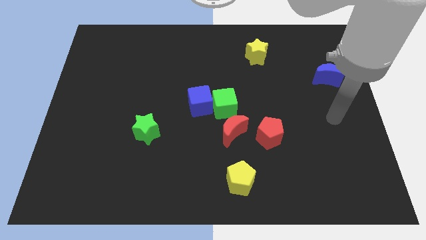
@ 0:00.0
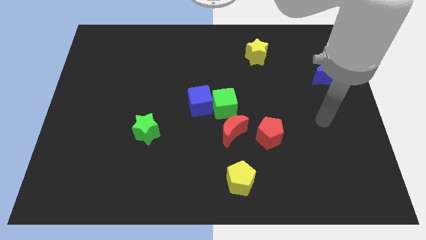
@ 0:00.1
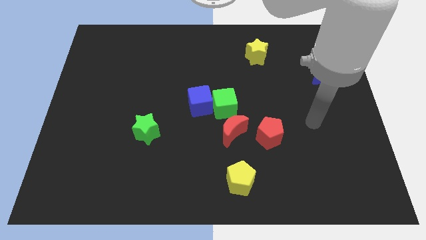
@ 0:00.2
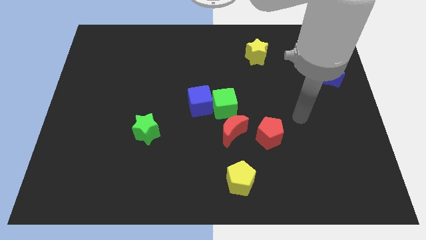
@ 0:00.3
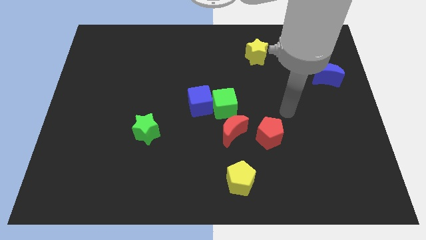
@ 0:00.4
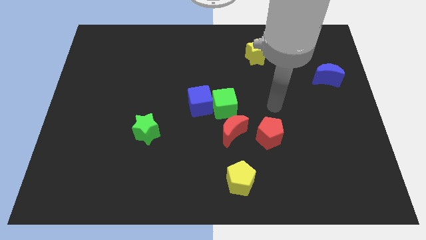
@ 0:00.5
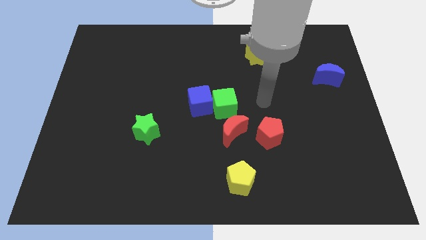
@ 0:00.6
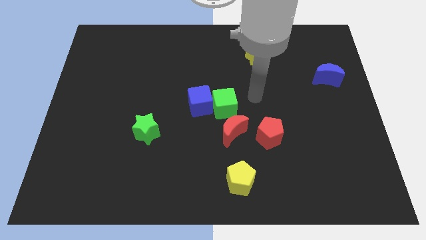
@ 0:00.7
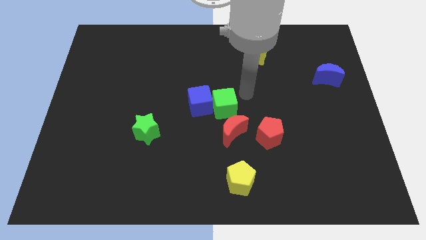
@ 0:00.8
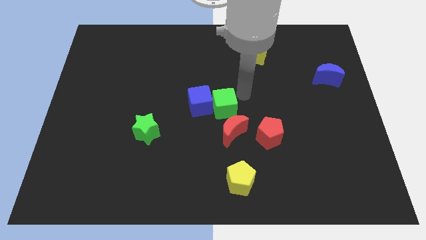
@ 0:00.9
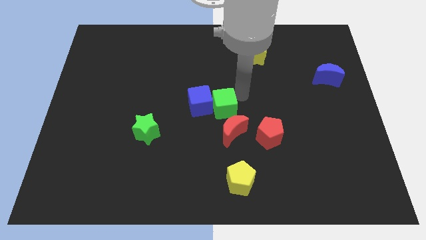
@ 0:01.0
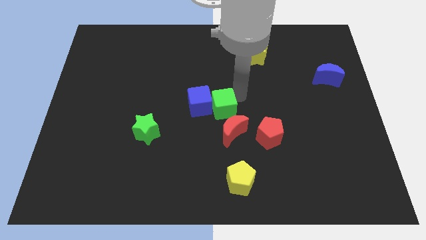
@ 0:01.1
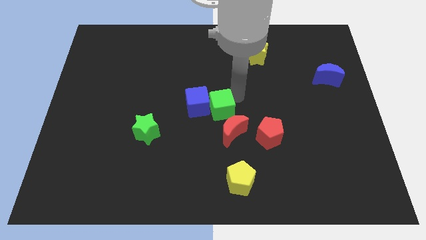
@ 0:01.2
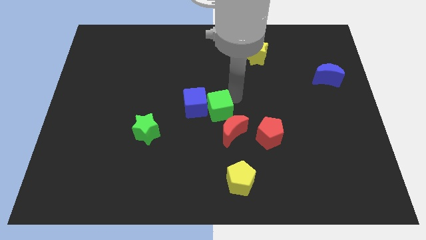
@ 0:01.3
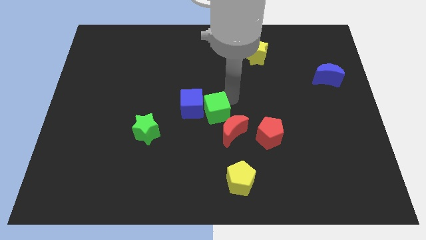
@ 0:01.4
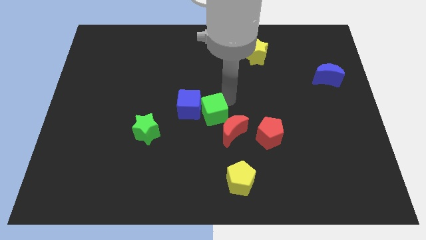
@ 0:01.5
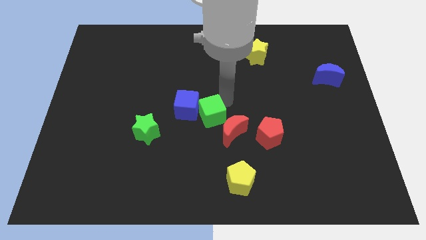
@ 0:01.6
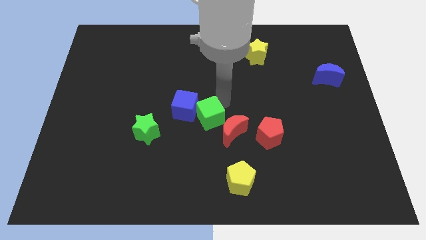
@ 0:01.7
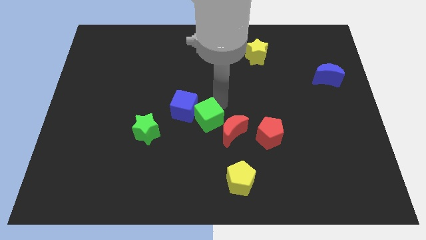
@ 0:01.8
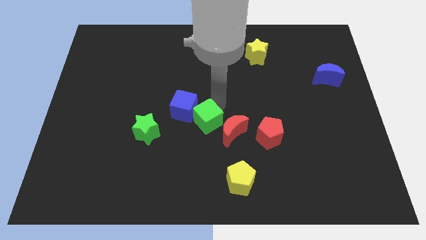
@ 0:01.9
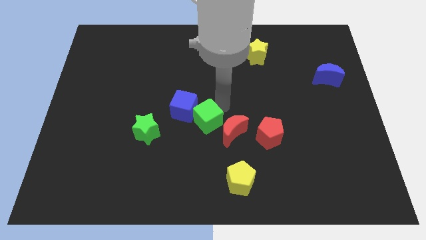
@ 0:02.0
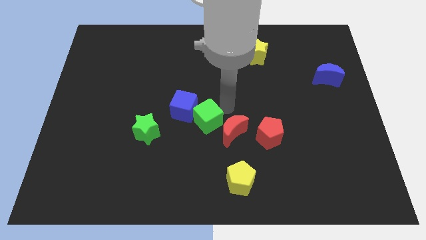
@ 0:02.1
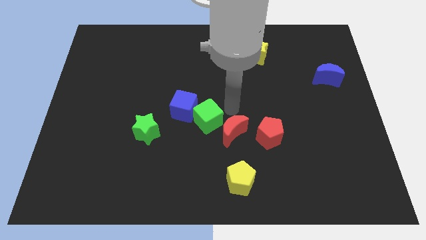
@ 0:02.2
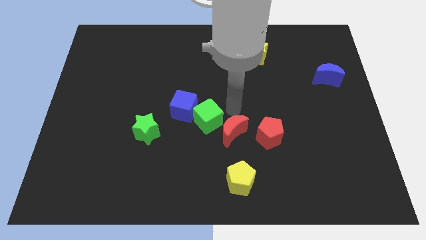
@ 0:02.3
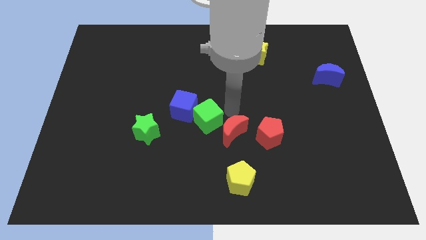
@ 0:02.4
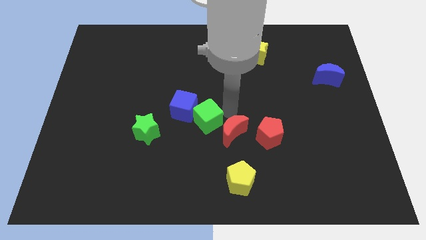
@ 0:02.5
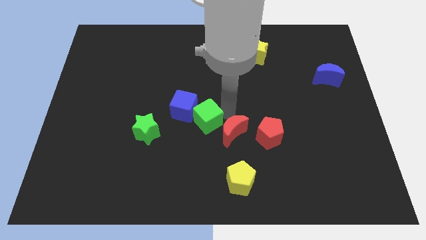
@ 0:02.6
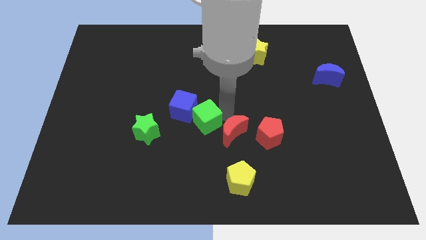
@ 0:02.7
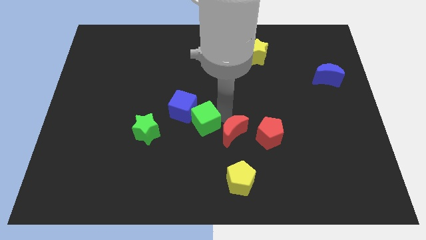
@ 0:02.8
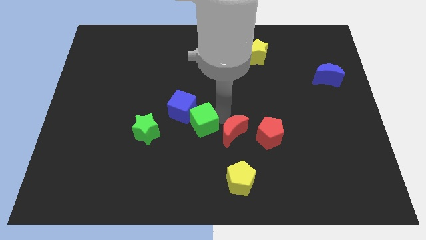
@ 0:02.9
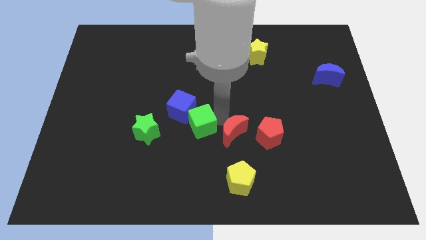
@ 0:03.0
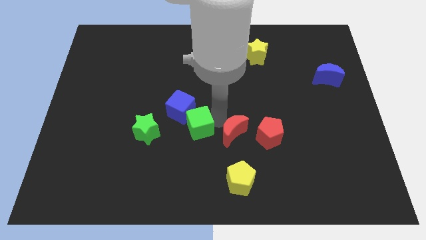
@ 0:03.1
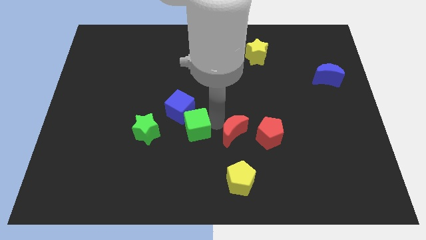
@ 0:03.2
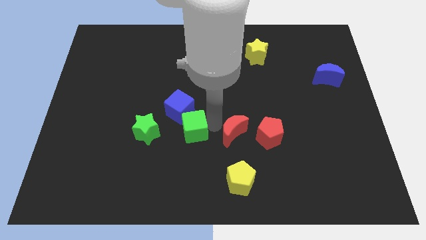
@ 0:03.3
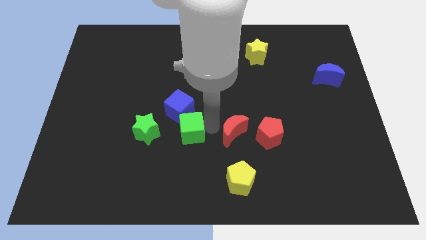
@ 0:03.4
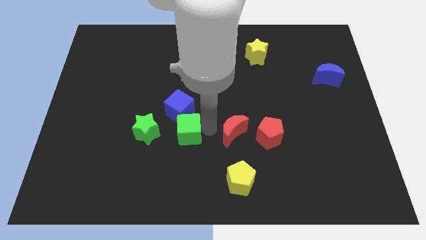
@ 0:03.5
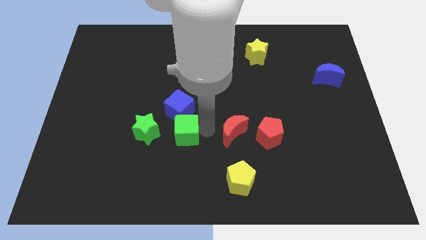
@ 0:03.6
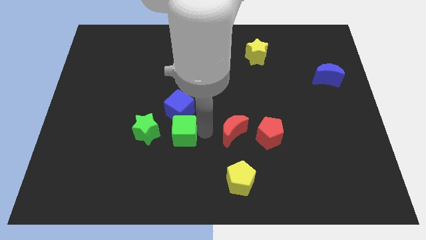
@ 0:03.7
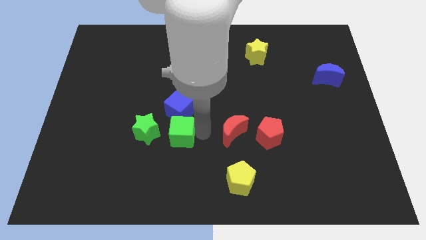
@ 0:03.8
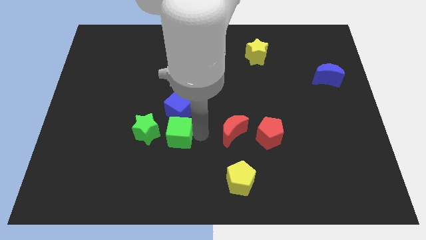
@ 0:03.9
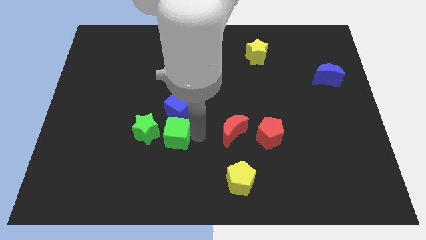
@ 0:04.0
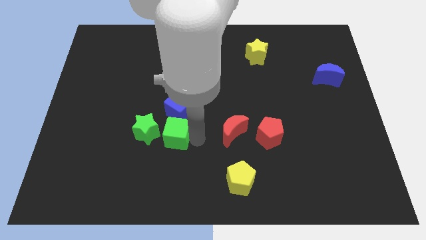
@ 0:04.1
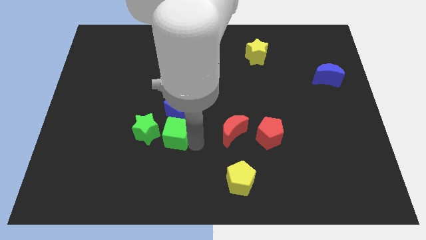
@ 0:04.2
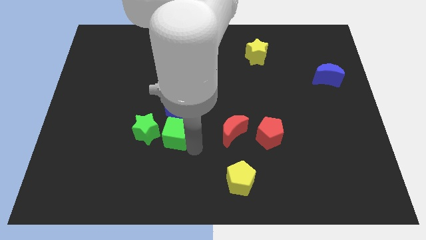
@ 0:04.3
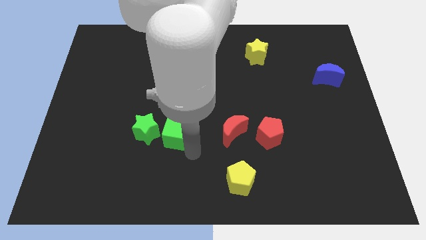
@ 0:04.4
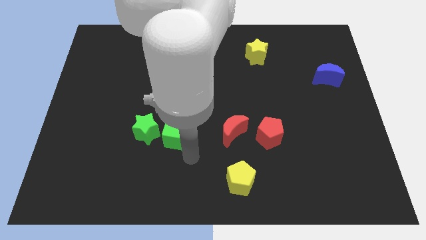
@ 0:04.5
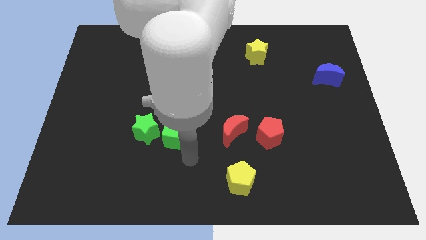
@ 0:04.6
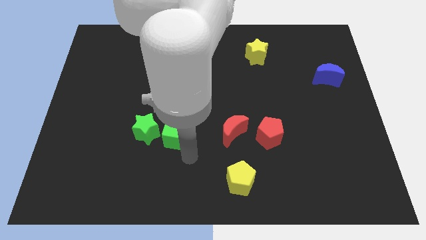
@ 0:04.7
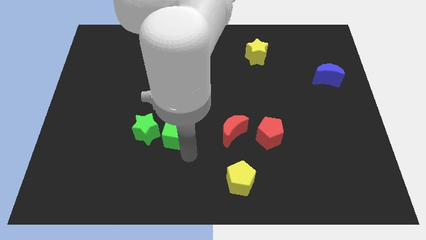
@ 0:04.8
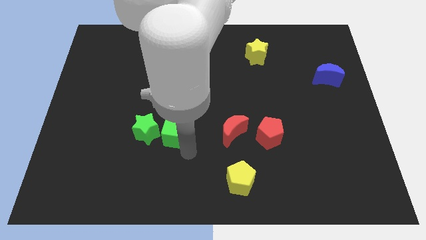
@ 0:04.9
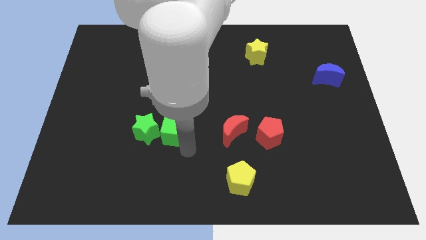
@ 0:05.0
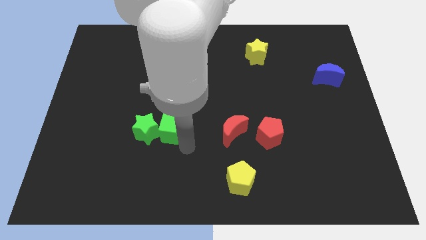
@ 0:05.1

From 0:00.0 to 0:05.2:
push the green cube next to the green star

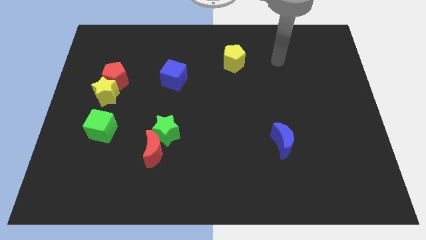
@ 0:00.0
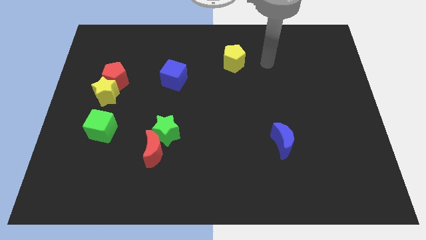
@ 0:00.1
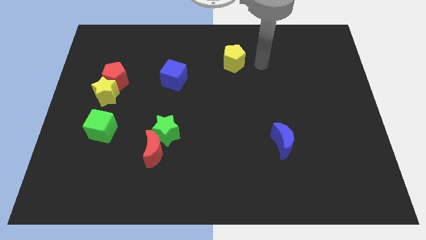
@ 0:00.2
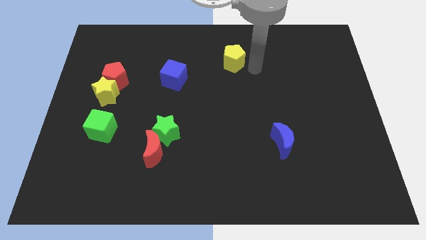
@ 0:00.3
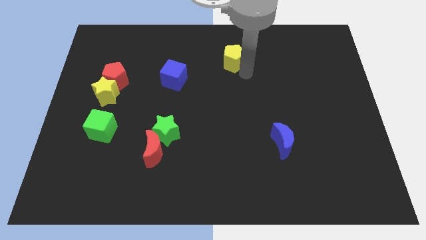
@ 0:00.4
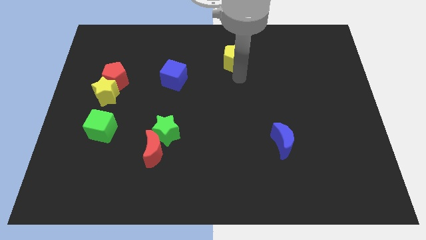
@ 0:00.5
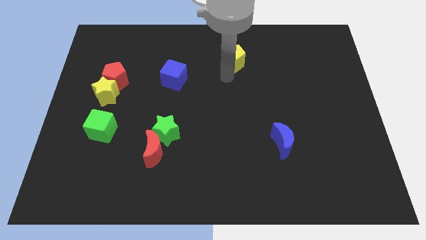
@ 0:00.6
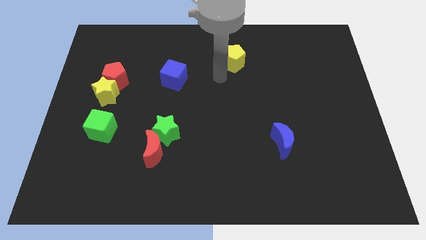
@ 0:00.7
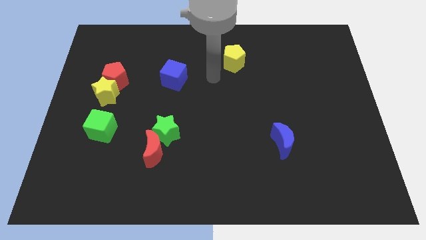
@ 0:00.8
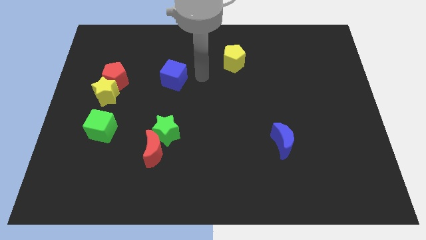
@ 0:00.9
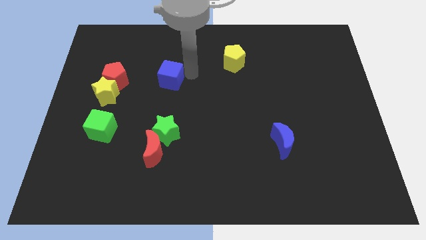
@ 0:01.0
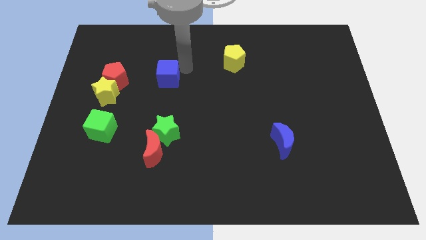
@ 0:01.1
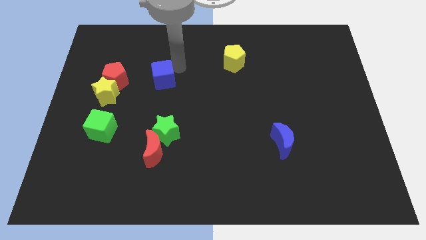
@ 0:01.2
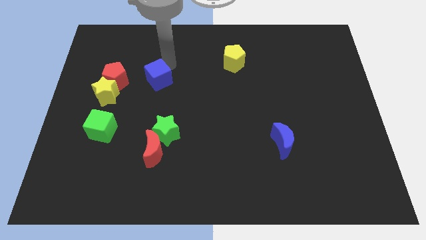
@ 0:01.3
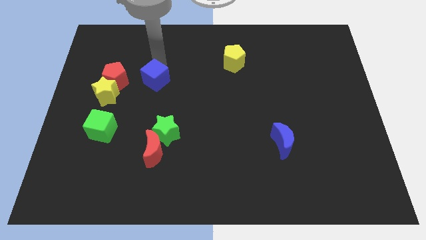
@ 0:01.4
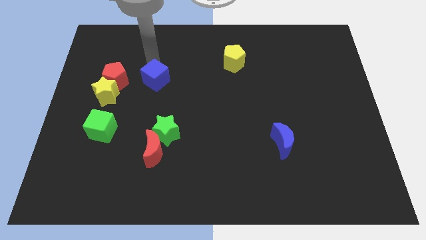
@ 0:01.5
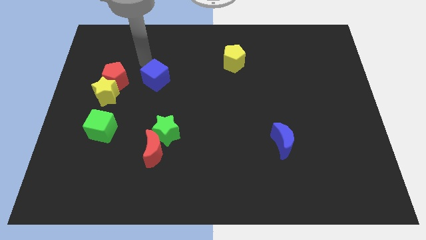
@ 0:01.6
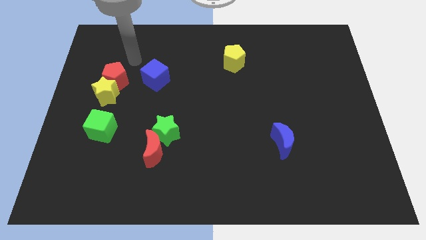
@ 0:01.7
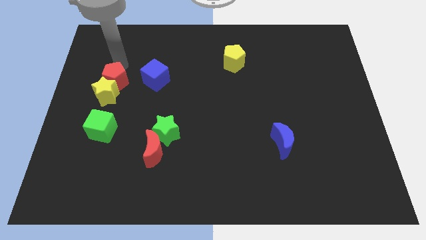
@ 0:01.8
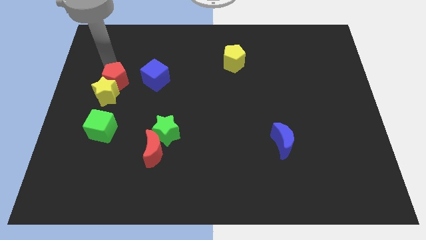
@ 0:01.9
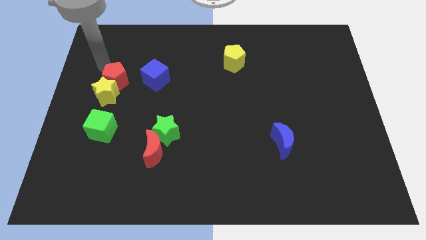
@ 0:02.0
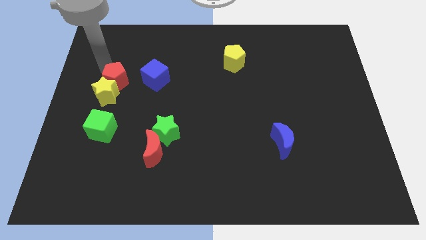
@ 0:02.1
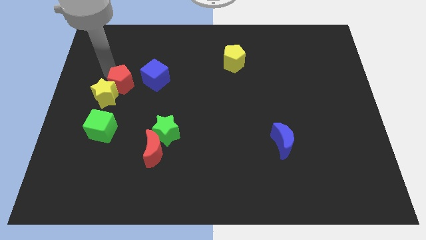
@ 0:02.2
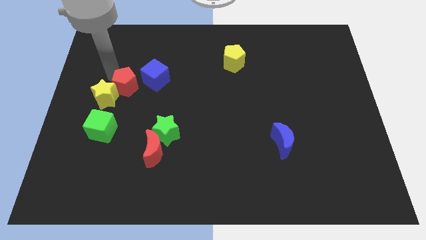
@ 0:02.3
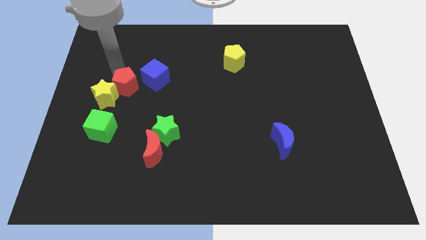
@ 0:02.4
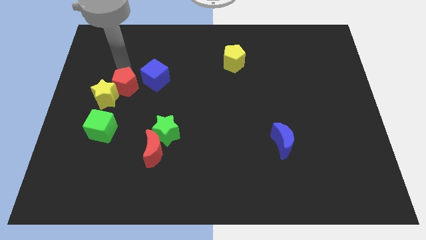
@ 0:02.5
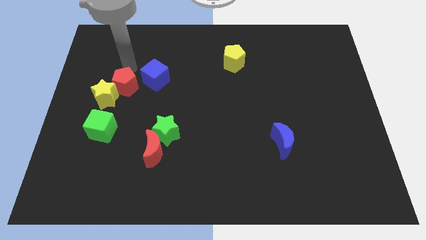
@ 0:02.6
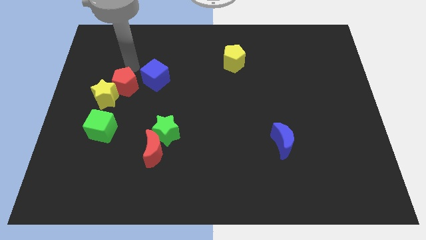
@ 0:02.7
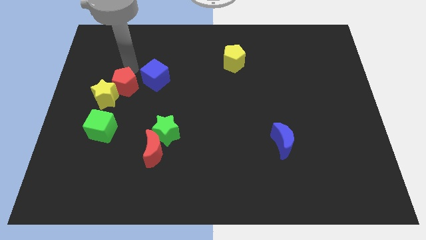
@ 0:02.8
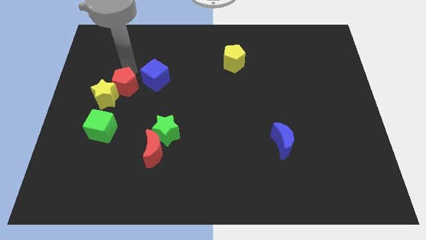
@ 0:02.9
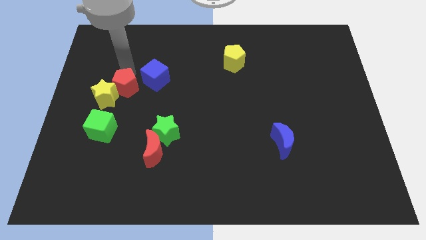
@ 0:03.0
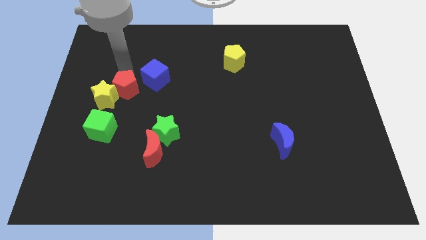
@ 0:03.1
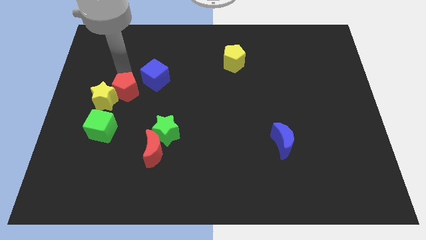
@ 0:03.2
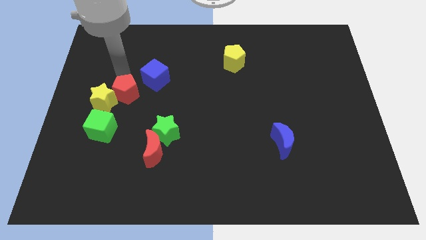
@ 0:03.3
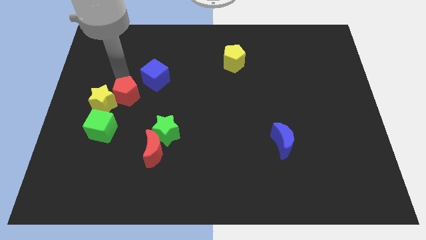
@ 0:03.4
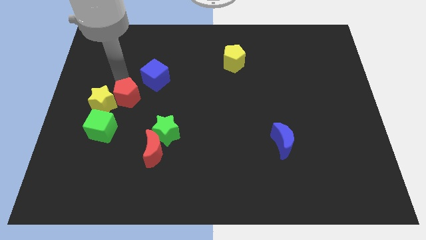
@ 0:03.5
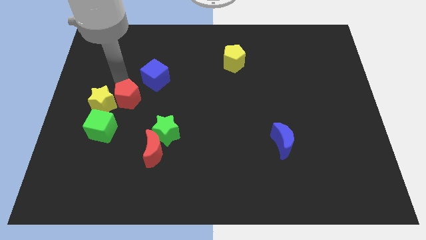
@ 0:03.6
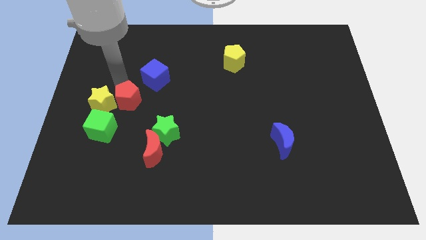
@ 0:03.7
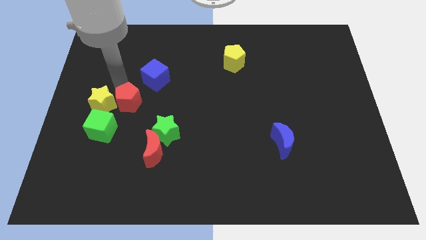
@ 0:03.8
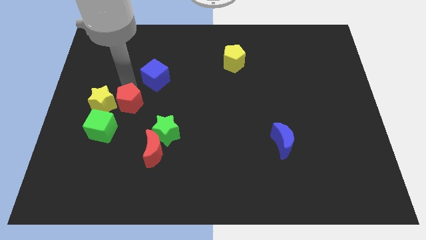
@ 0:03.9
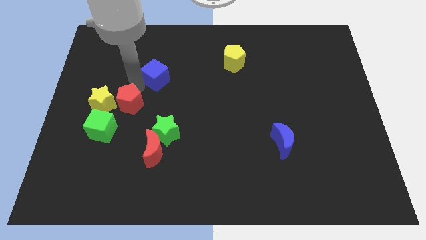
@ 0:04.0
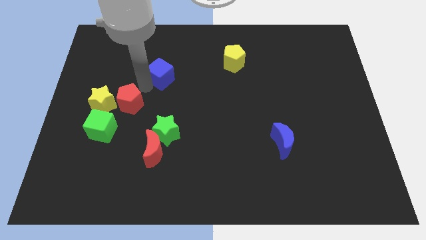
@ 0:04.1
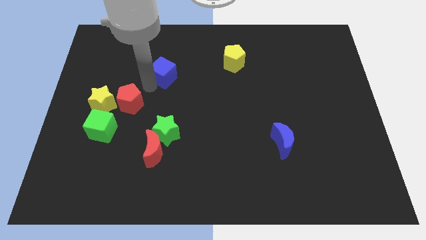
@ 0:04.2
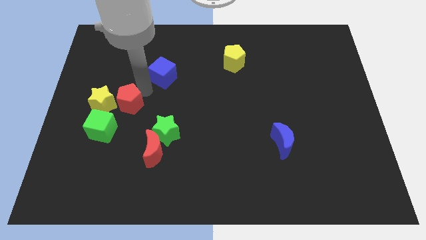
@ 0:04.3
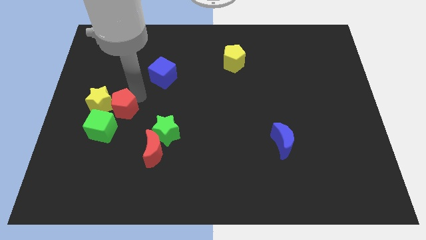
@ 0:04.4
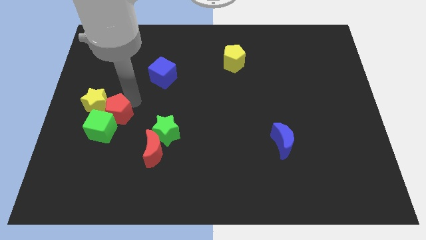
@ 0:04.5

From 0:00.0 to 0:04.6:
move the red pentagon towards the green cube
